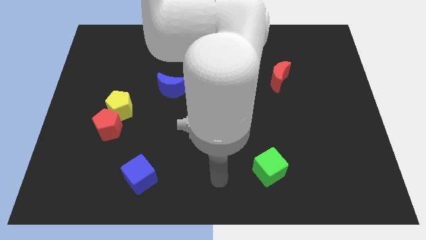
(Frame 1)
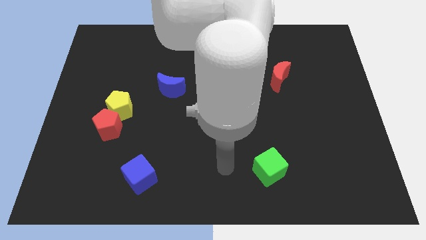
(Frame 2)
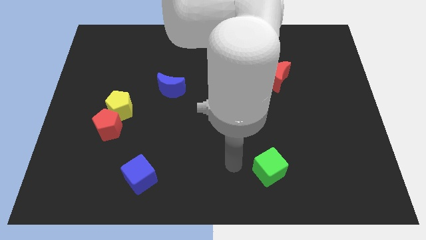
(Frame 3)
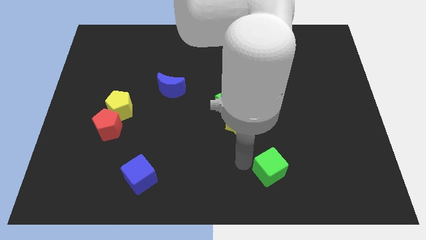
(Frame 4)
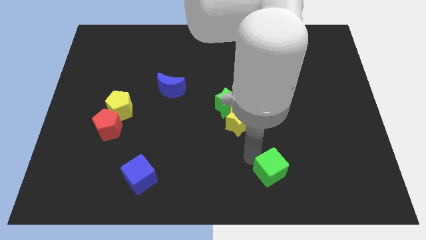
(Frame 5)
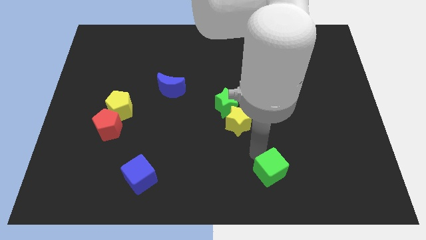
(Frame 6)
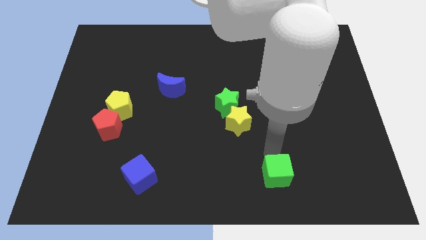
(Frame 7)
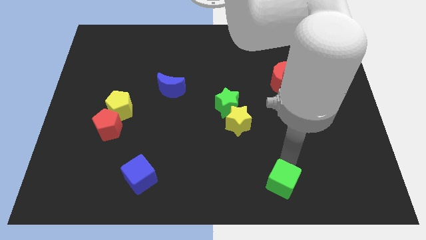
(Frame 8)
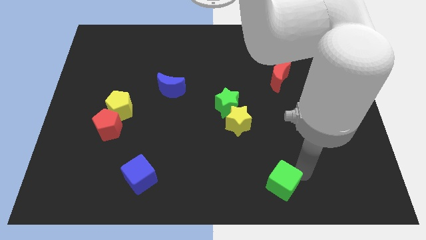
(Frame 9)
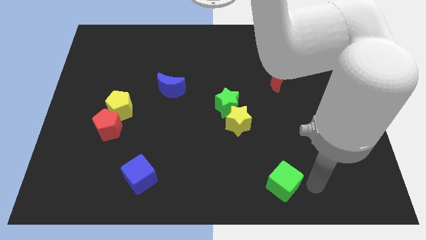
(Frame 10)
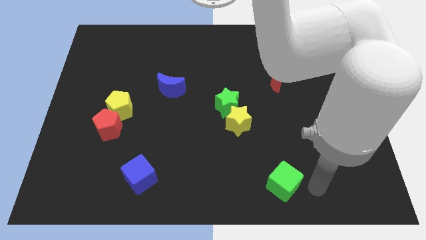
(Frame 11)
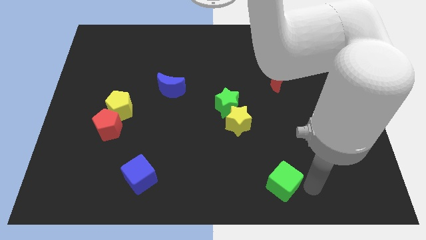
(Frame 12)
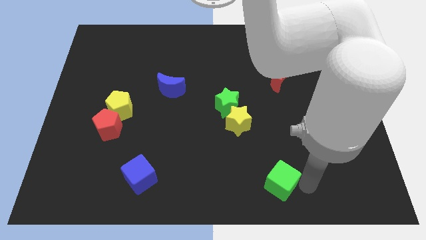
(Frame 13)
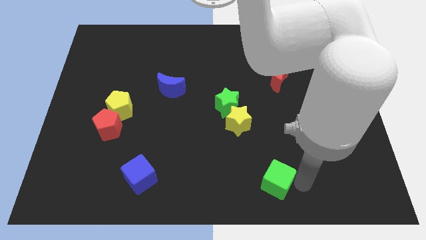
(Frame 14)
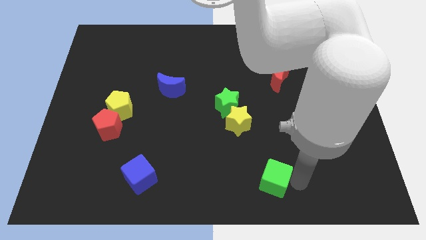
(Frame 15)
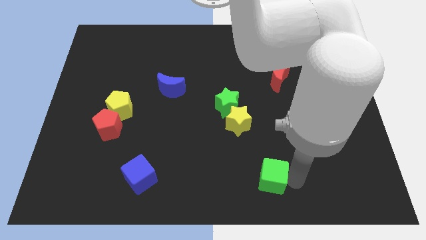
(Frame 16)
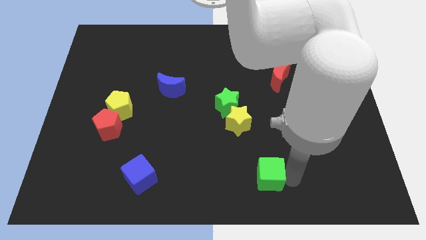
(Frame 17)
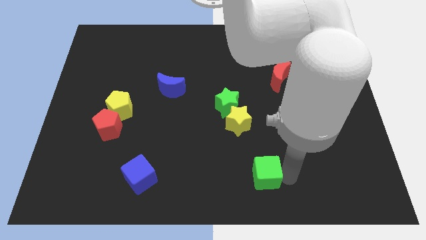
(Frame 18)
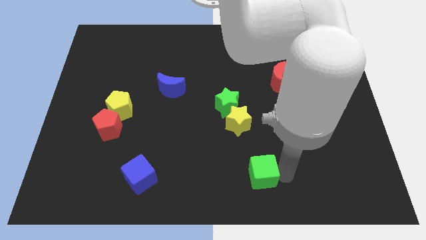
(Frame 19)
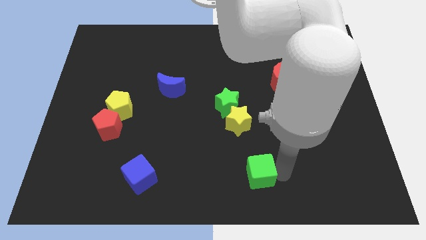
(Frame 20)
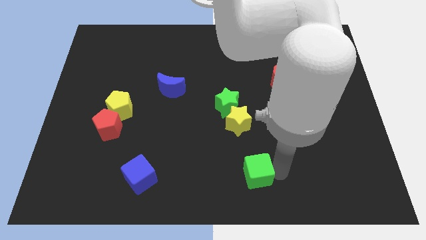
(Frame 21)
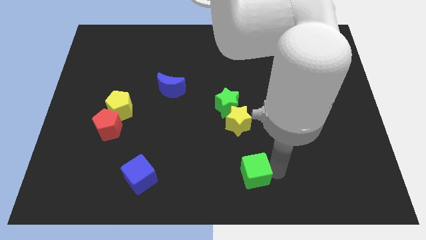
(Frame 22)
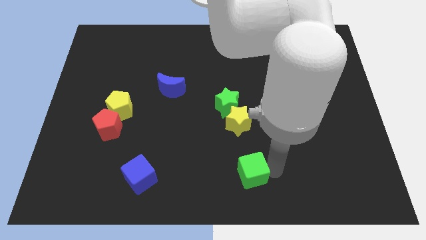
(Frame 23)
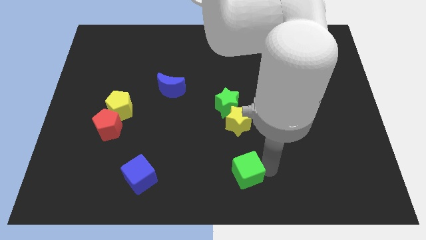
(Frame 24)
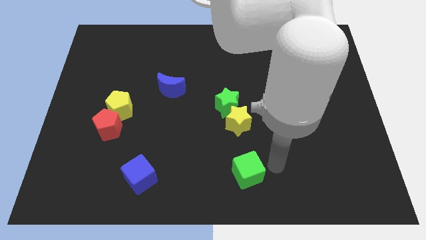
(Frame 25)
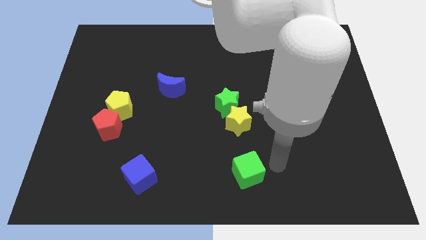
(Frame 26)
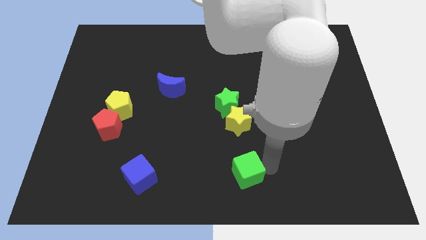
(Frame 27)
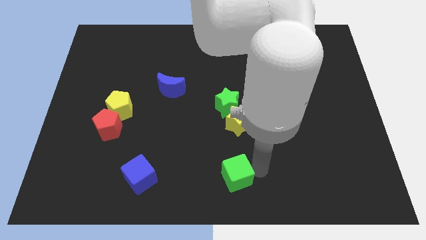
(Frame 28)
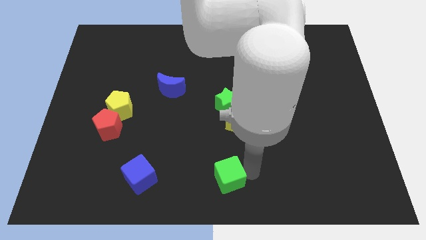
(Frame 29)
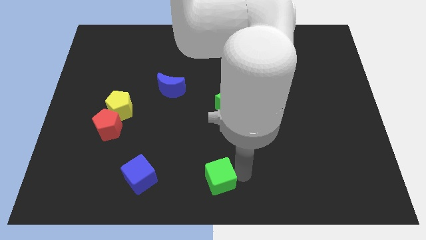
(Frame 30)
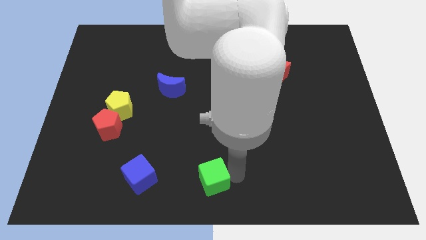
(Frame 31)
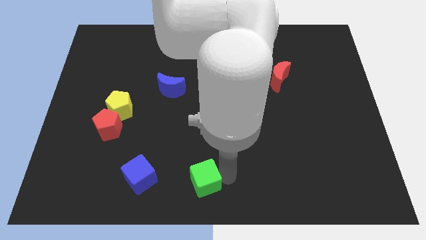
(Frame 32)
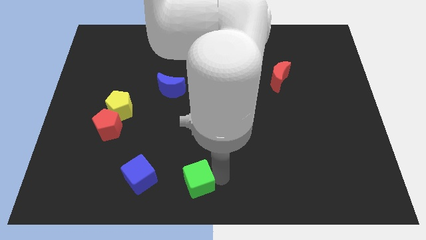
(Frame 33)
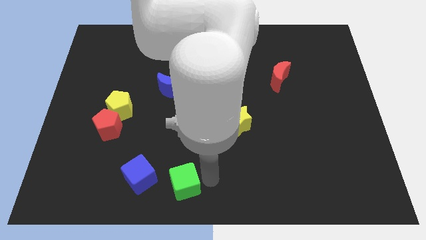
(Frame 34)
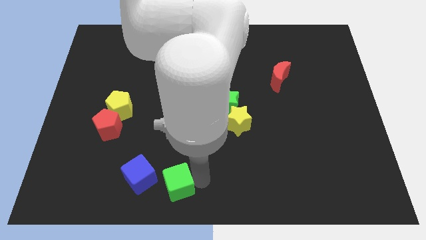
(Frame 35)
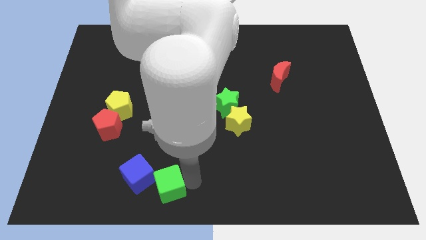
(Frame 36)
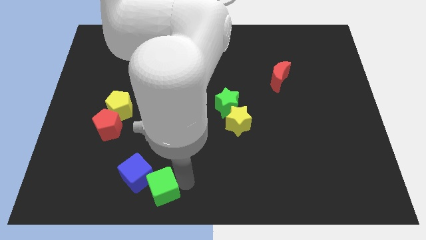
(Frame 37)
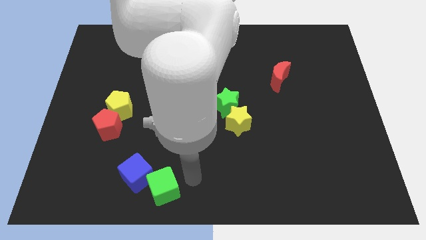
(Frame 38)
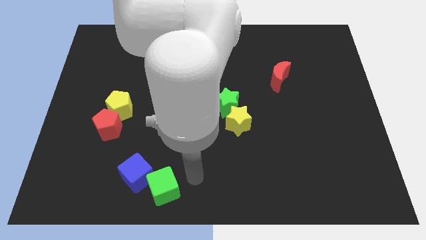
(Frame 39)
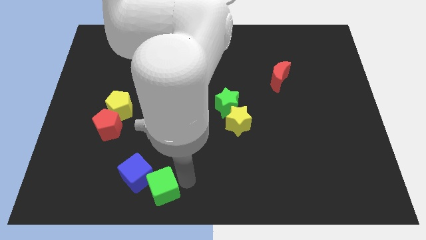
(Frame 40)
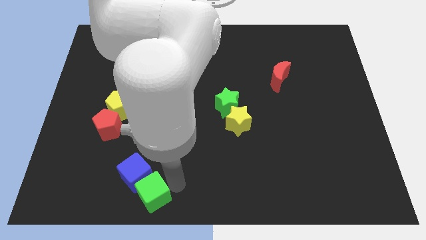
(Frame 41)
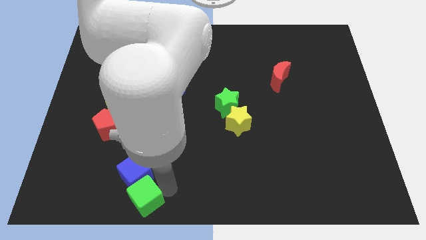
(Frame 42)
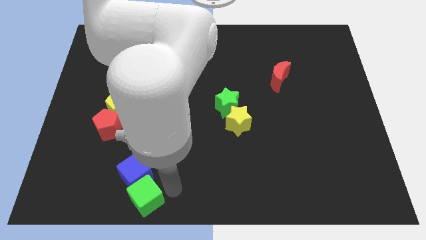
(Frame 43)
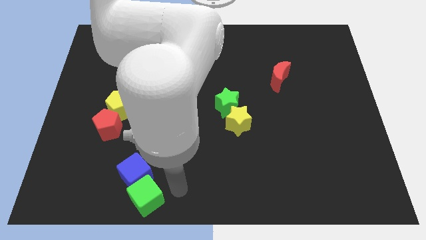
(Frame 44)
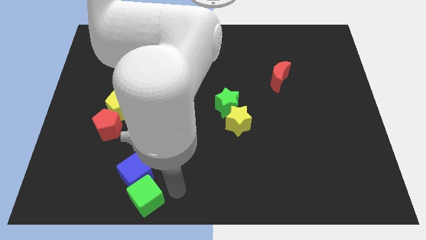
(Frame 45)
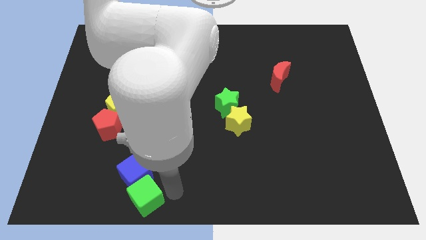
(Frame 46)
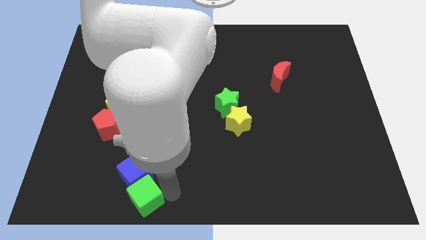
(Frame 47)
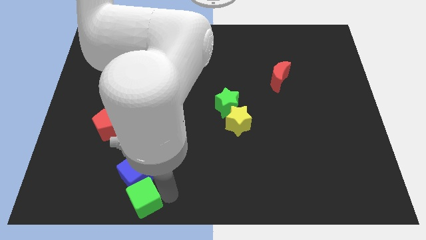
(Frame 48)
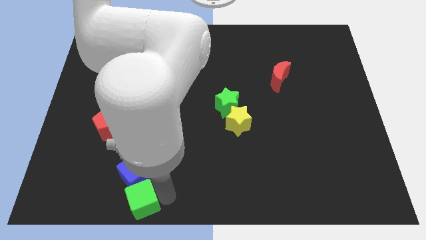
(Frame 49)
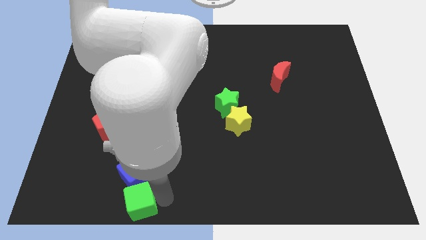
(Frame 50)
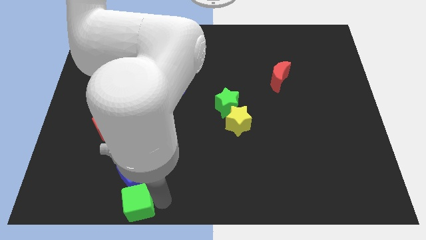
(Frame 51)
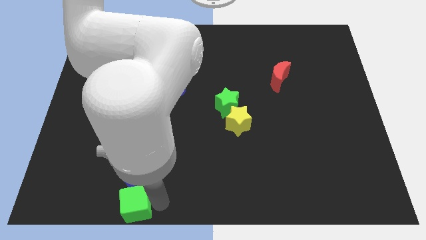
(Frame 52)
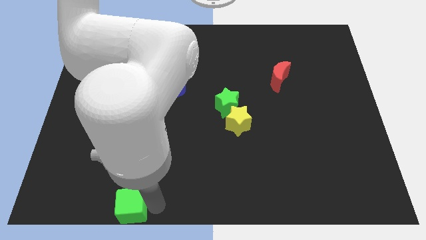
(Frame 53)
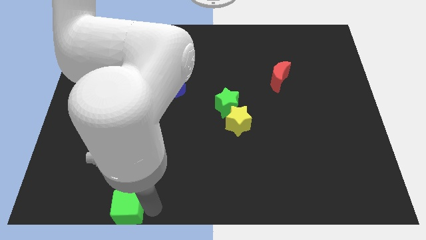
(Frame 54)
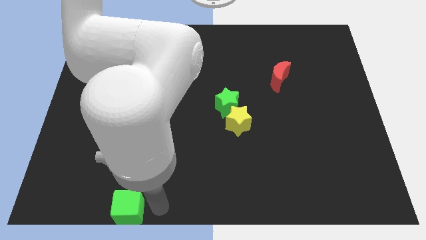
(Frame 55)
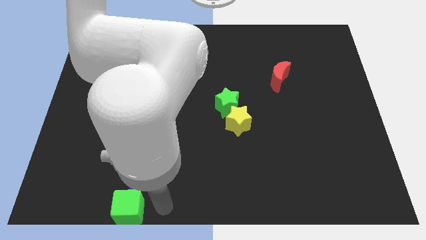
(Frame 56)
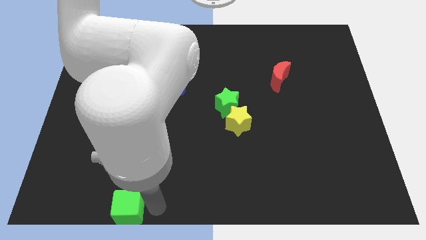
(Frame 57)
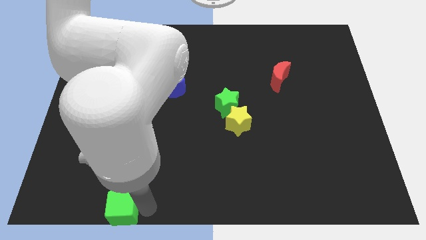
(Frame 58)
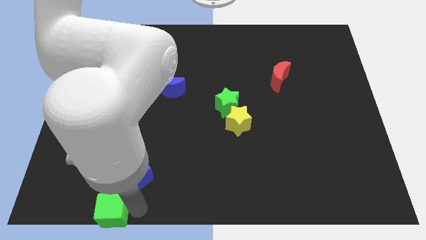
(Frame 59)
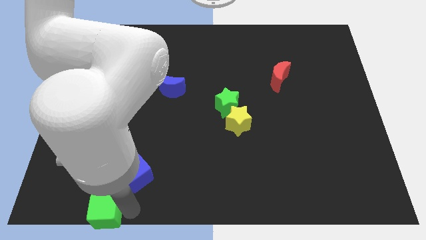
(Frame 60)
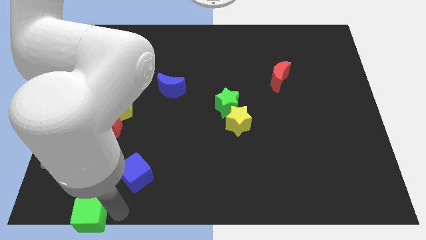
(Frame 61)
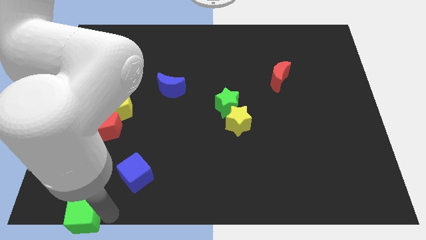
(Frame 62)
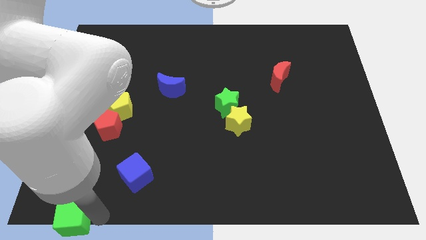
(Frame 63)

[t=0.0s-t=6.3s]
push the green cube to the bottom left corner

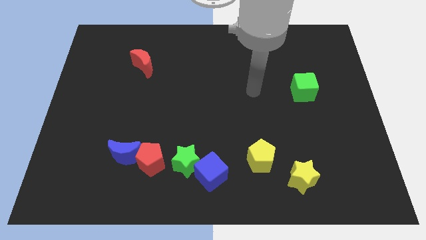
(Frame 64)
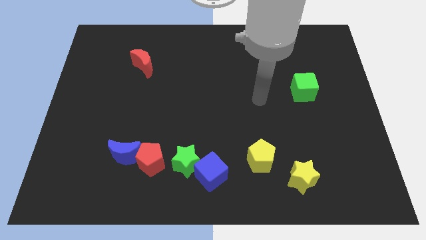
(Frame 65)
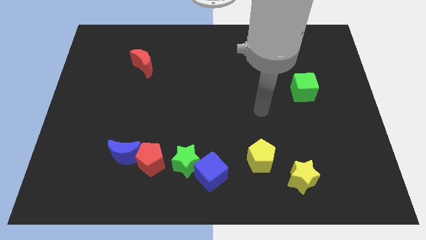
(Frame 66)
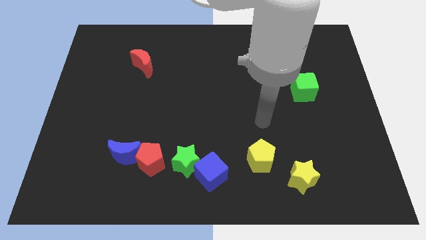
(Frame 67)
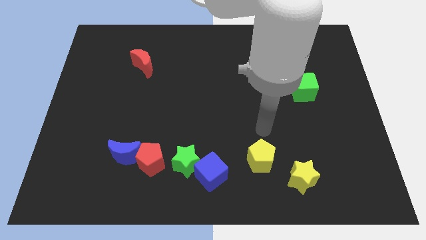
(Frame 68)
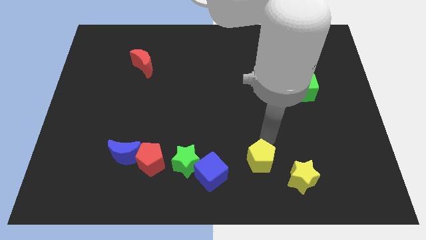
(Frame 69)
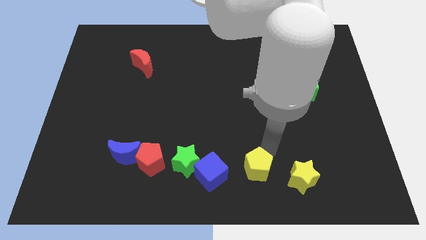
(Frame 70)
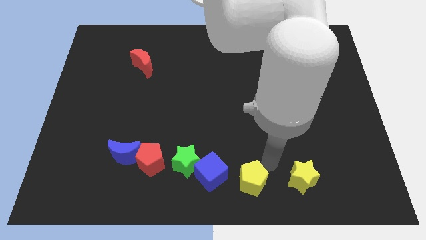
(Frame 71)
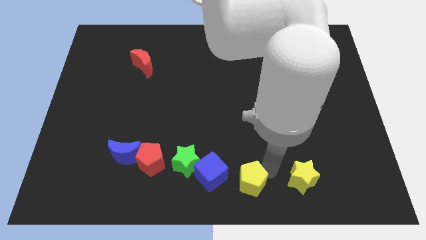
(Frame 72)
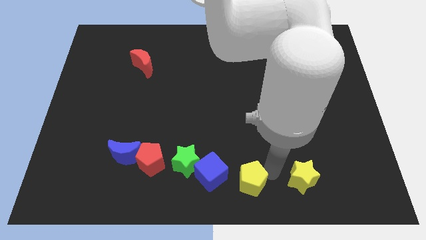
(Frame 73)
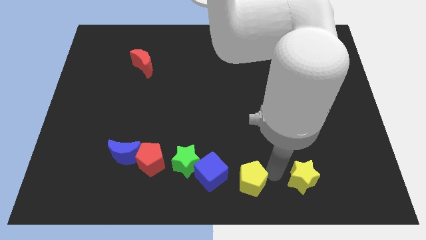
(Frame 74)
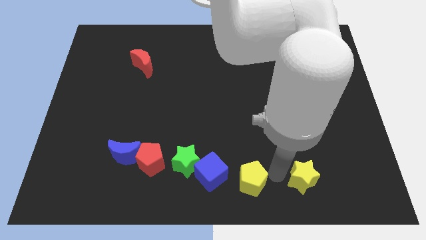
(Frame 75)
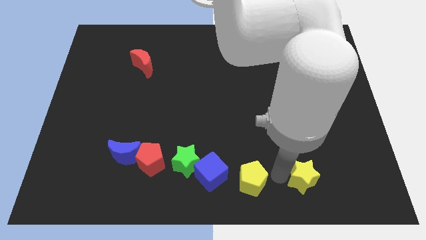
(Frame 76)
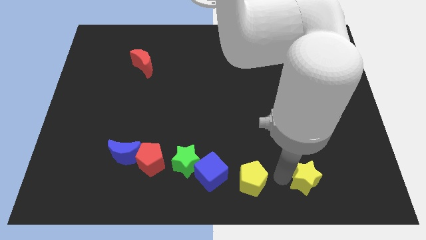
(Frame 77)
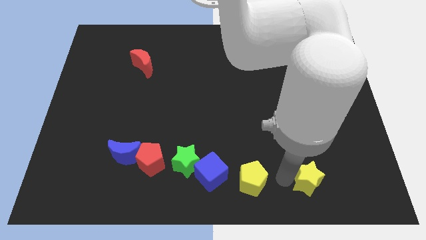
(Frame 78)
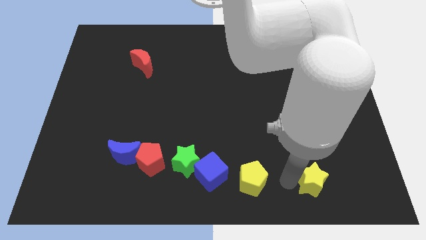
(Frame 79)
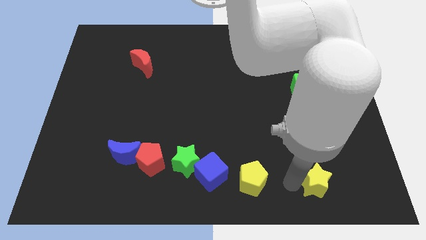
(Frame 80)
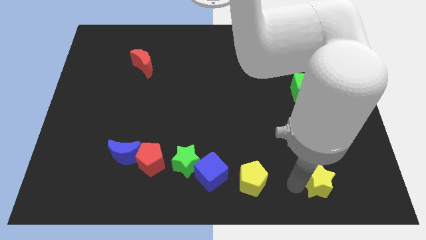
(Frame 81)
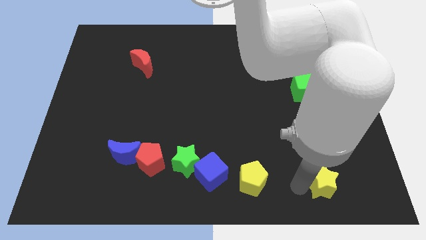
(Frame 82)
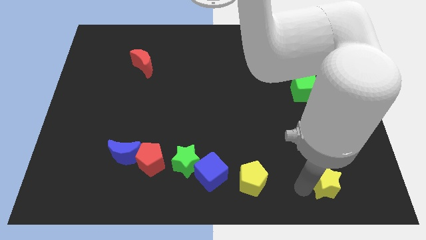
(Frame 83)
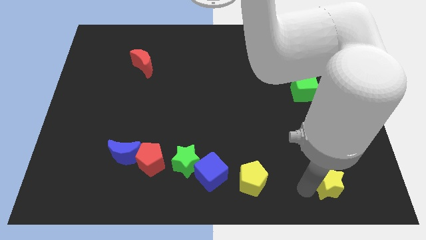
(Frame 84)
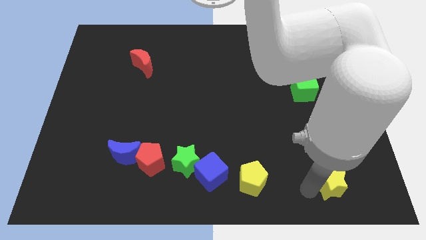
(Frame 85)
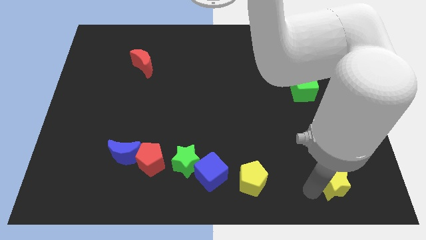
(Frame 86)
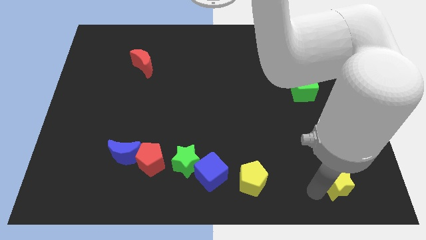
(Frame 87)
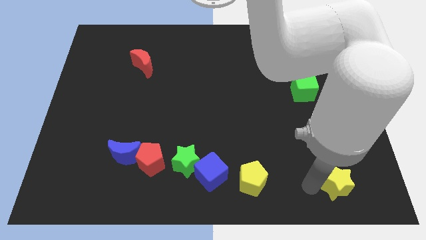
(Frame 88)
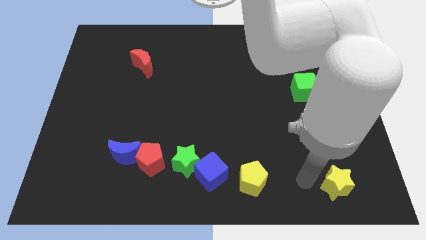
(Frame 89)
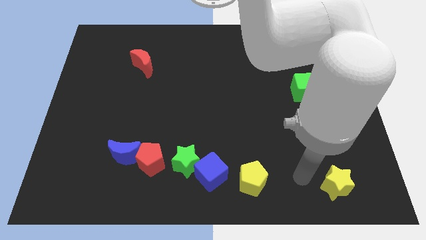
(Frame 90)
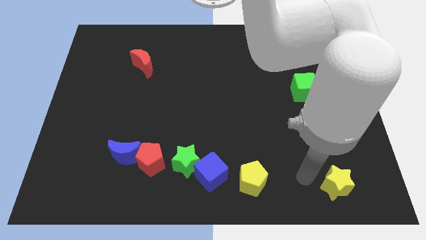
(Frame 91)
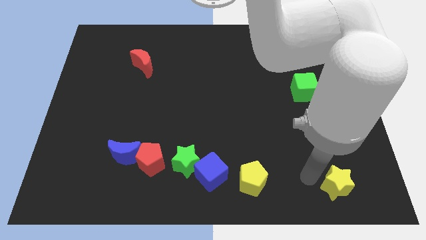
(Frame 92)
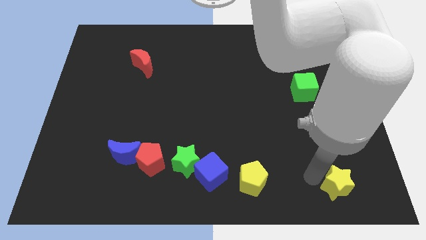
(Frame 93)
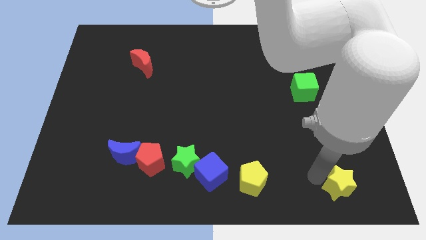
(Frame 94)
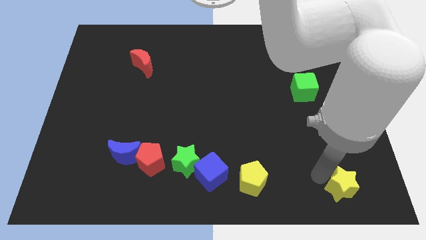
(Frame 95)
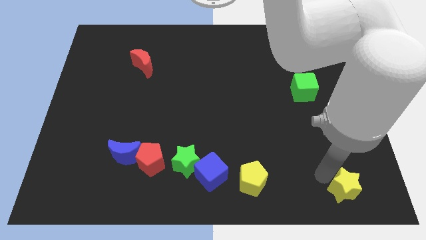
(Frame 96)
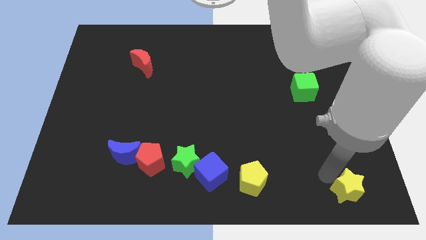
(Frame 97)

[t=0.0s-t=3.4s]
slide the yellow star to the bottom right of the board
